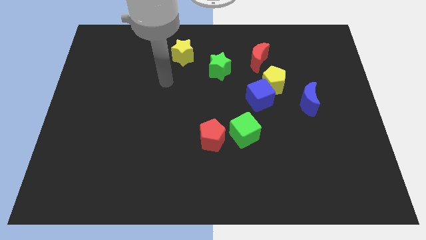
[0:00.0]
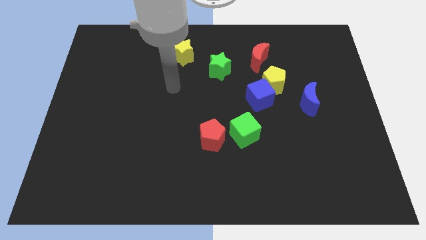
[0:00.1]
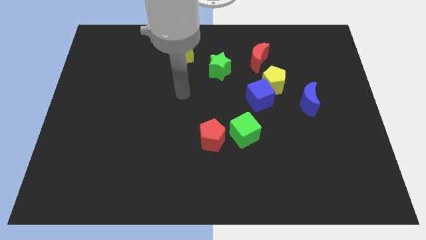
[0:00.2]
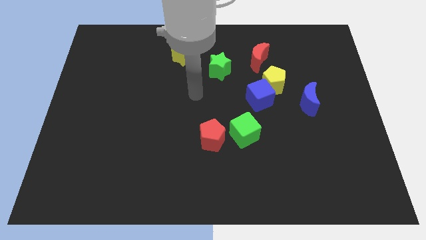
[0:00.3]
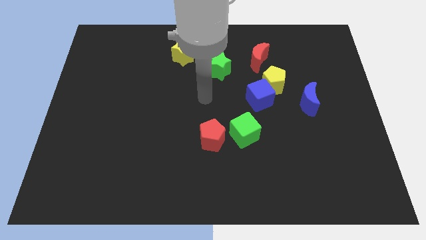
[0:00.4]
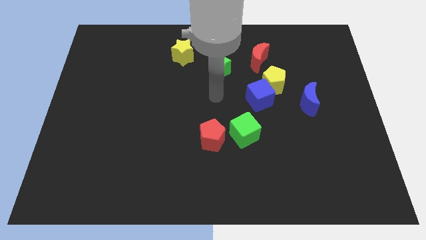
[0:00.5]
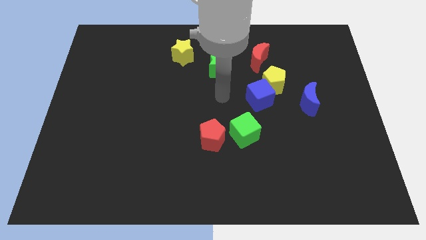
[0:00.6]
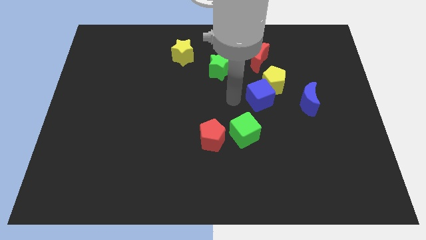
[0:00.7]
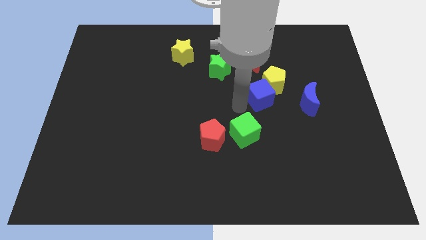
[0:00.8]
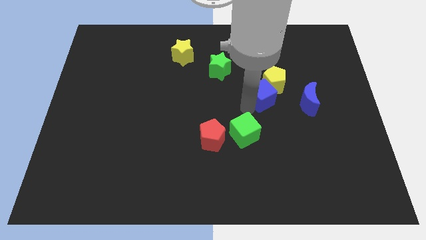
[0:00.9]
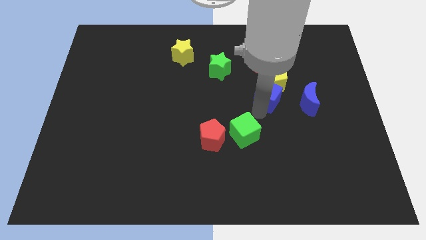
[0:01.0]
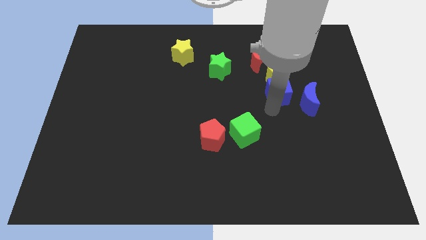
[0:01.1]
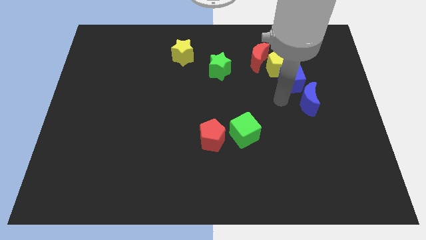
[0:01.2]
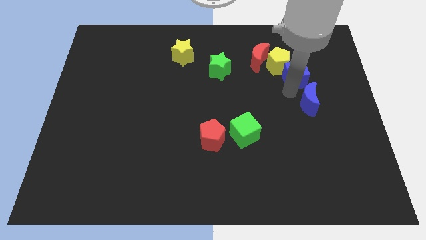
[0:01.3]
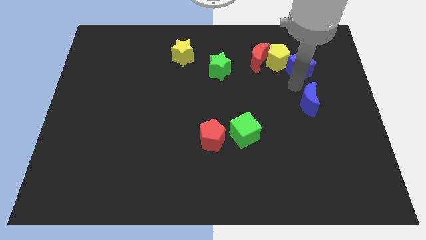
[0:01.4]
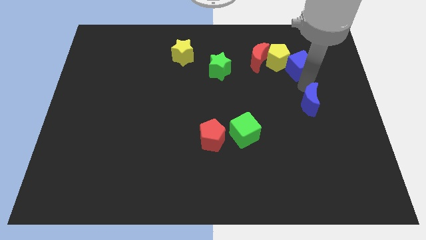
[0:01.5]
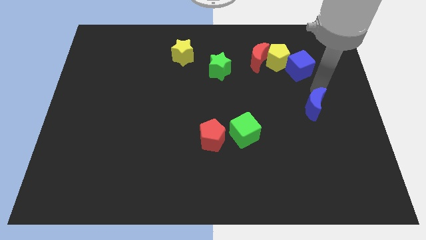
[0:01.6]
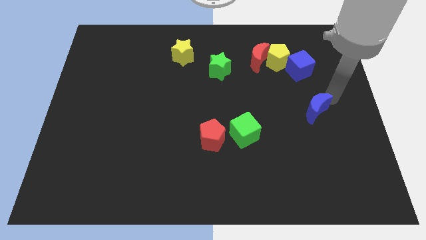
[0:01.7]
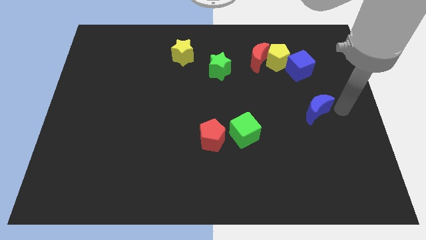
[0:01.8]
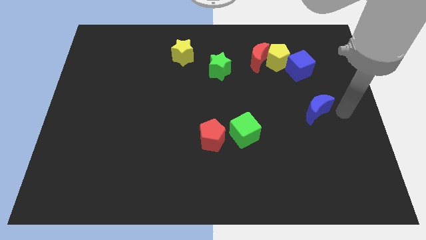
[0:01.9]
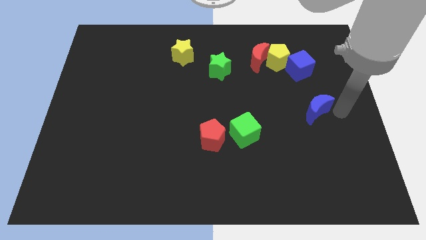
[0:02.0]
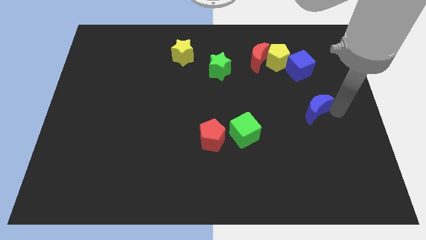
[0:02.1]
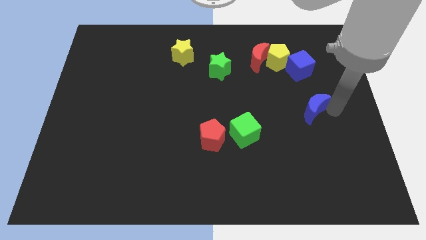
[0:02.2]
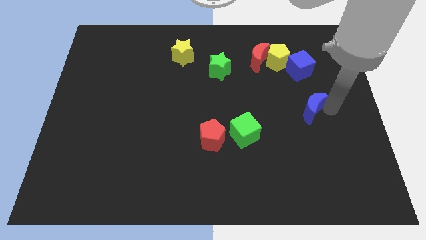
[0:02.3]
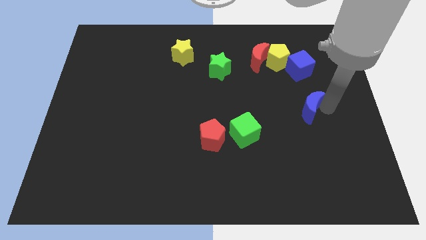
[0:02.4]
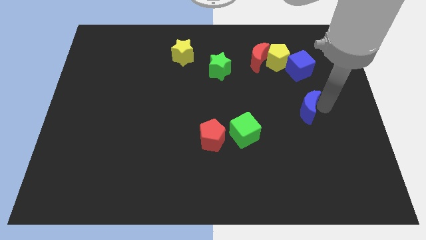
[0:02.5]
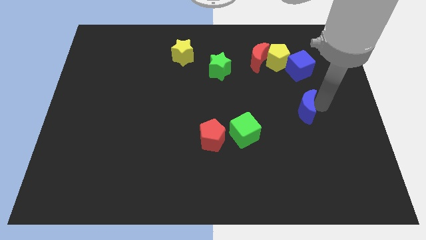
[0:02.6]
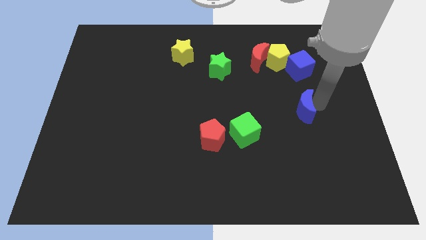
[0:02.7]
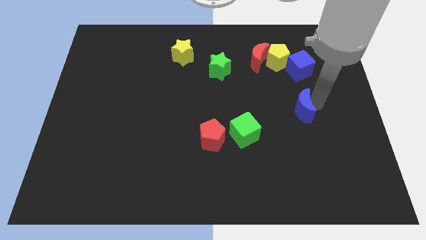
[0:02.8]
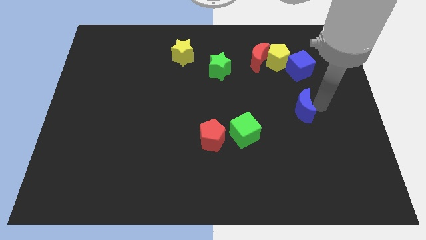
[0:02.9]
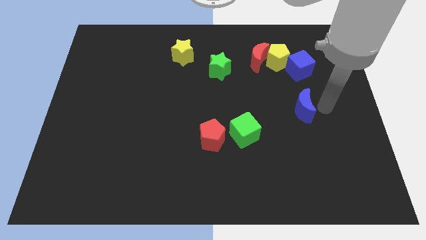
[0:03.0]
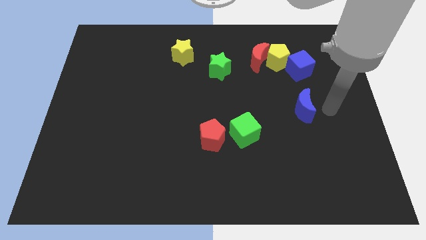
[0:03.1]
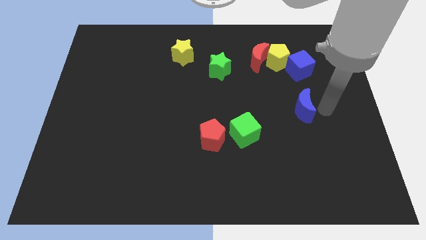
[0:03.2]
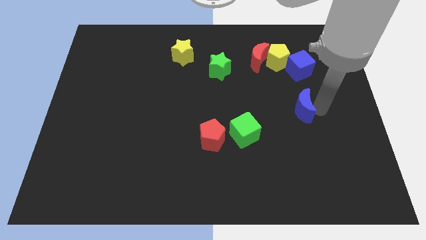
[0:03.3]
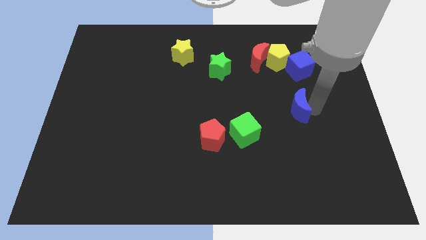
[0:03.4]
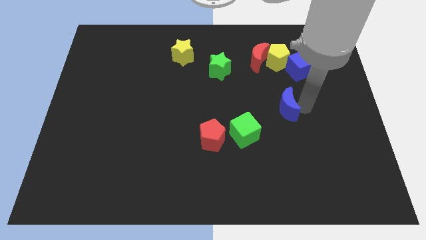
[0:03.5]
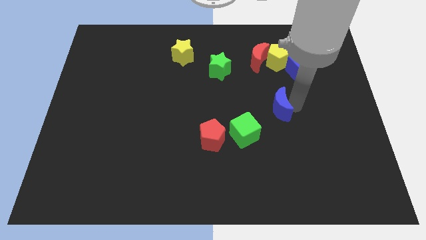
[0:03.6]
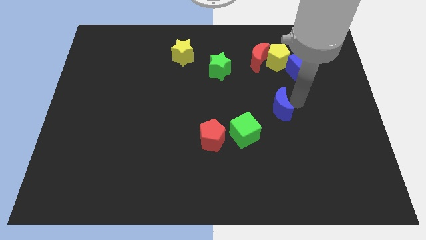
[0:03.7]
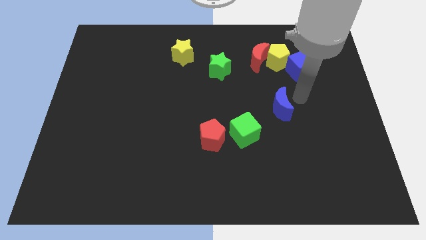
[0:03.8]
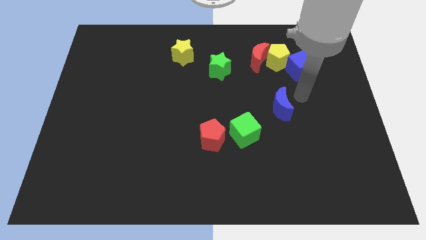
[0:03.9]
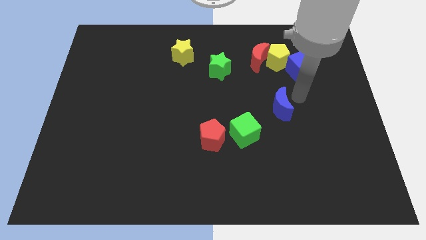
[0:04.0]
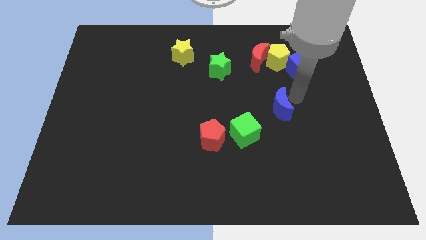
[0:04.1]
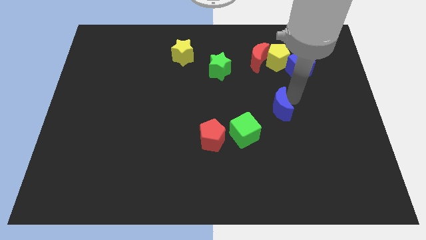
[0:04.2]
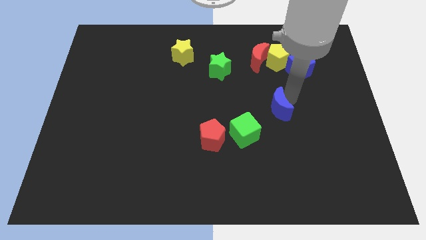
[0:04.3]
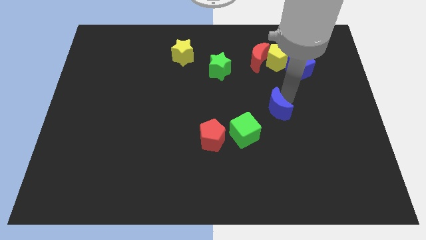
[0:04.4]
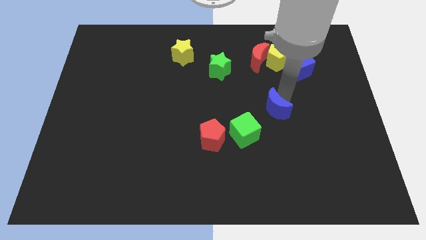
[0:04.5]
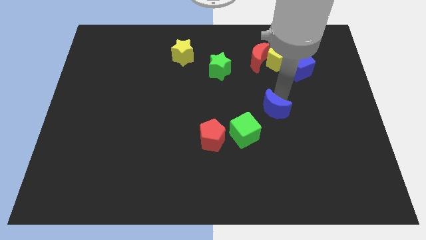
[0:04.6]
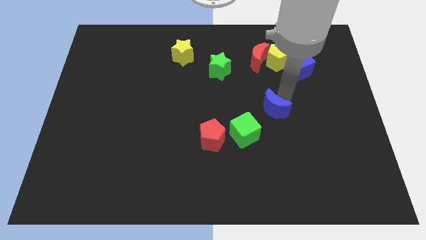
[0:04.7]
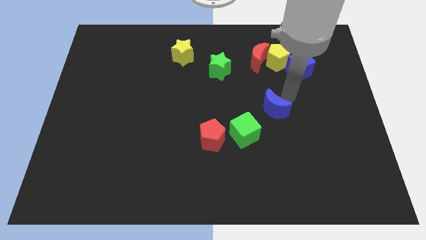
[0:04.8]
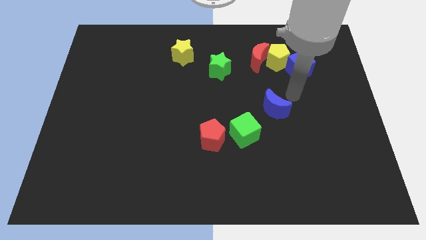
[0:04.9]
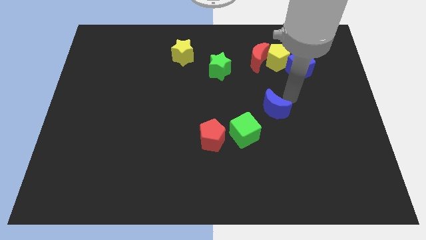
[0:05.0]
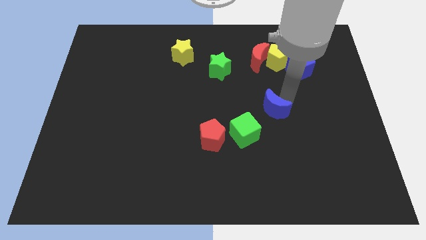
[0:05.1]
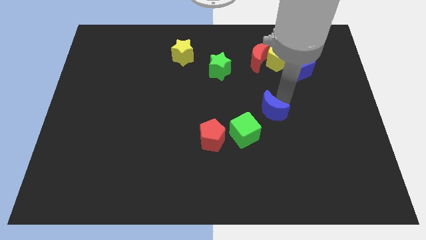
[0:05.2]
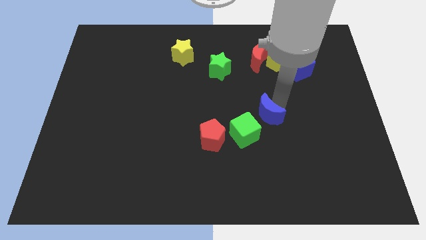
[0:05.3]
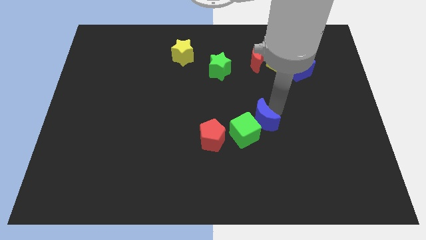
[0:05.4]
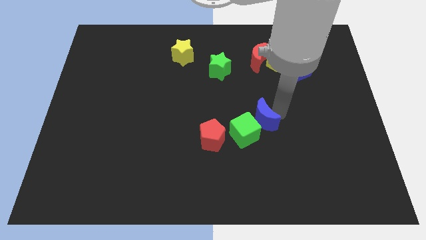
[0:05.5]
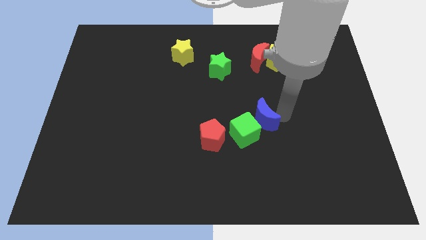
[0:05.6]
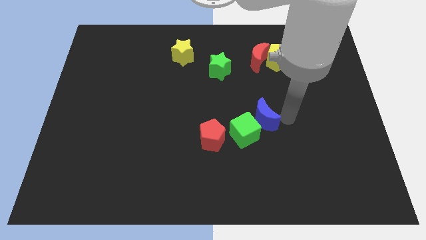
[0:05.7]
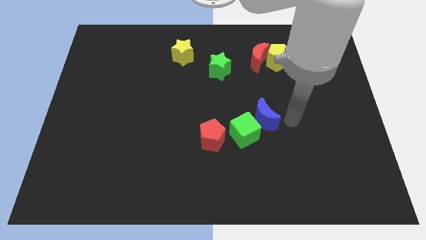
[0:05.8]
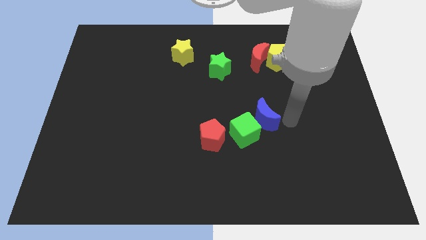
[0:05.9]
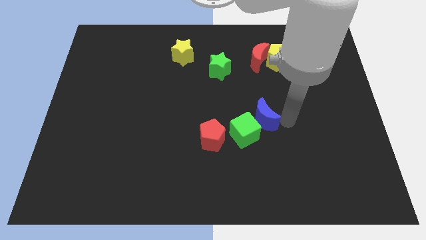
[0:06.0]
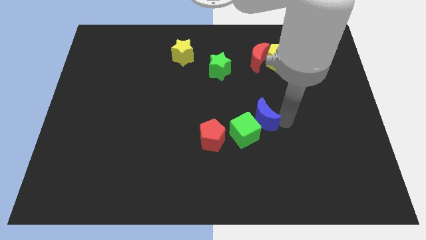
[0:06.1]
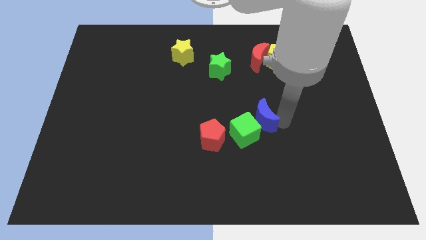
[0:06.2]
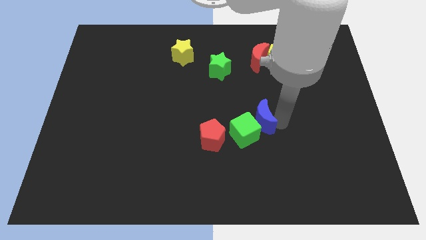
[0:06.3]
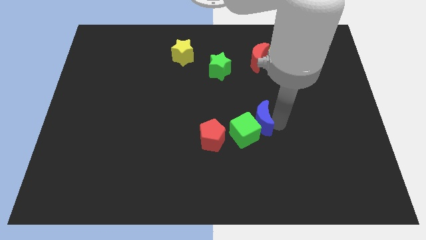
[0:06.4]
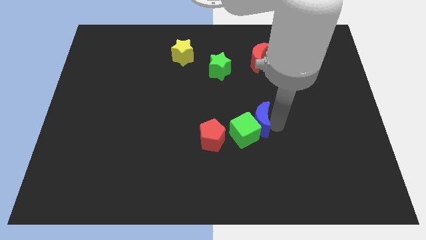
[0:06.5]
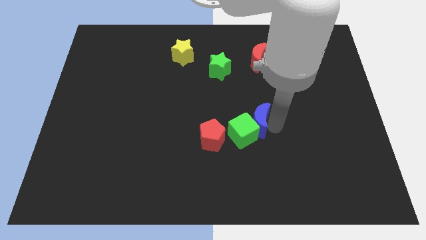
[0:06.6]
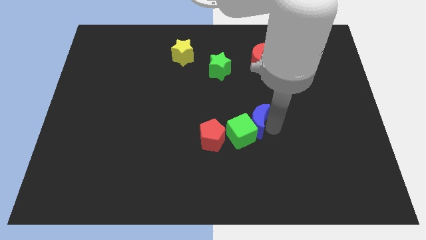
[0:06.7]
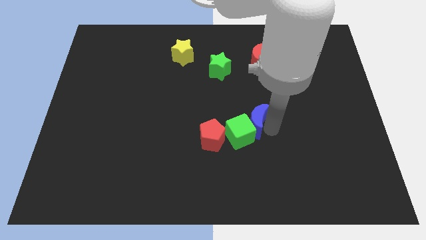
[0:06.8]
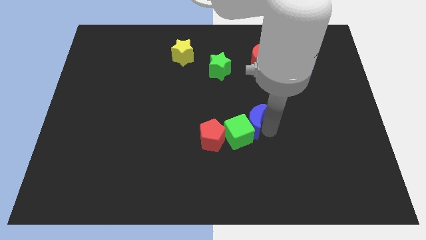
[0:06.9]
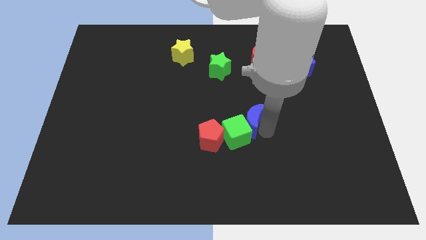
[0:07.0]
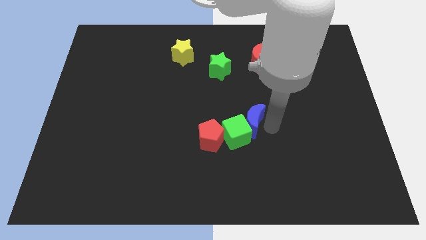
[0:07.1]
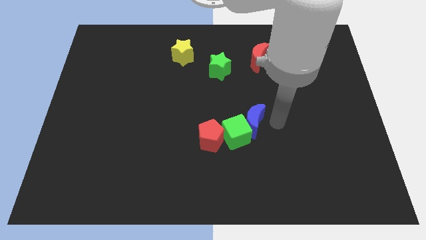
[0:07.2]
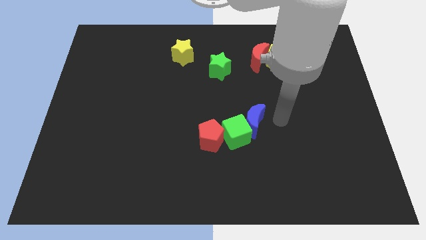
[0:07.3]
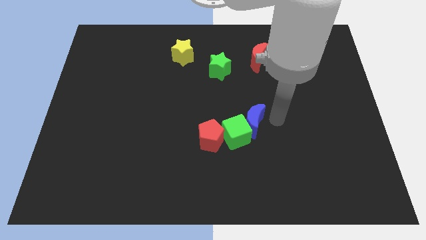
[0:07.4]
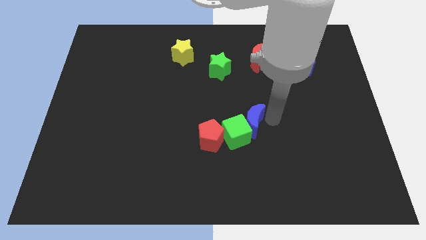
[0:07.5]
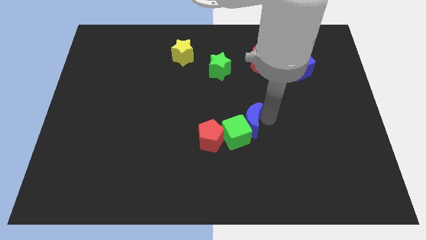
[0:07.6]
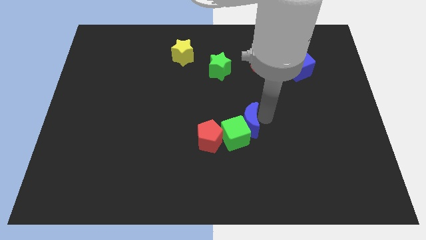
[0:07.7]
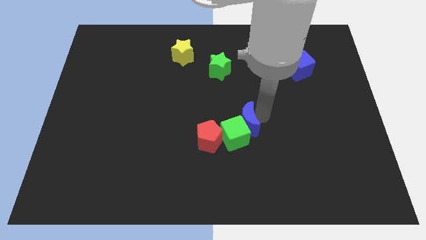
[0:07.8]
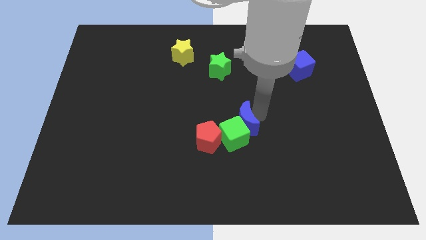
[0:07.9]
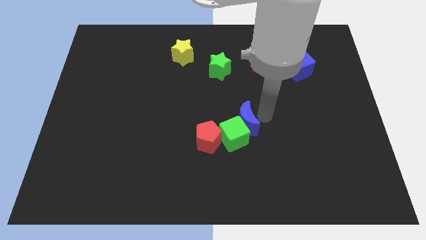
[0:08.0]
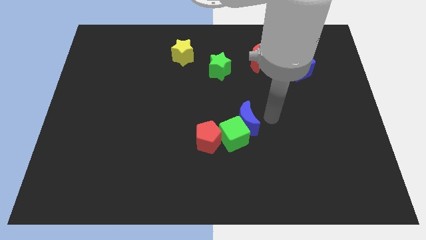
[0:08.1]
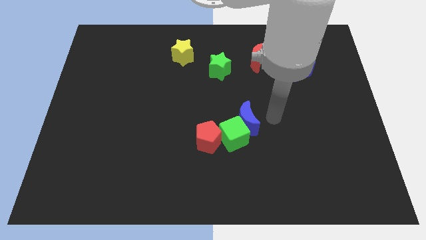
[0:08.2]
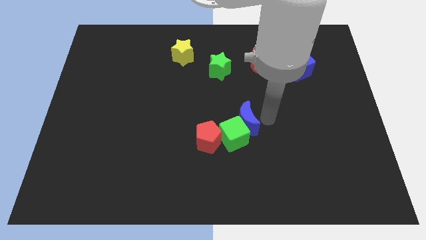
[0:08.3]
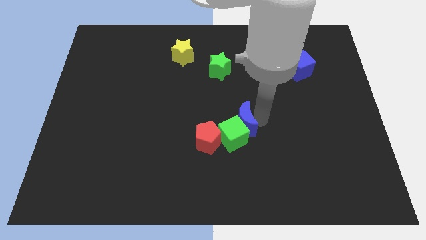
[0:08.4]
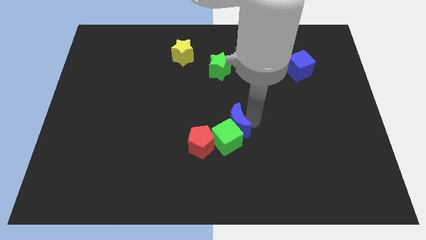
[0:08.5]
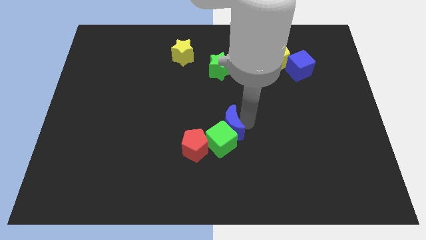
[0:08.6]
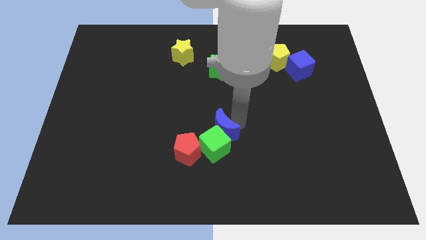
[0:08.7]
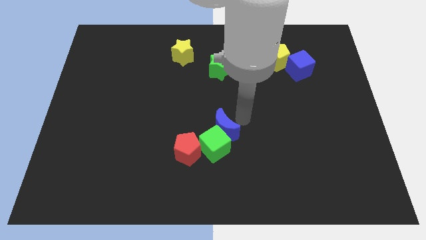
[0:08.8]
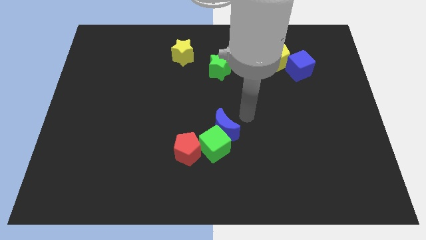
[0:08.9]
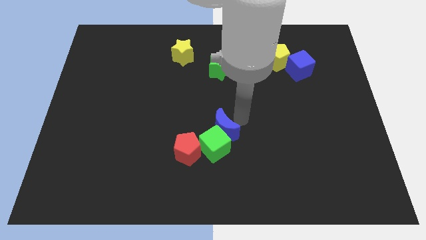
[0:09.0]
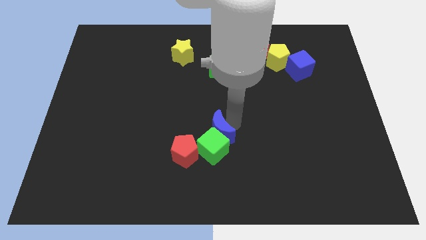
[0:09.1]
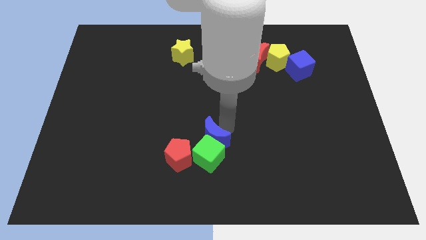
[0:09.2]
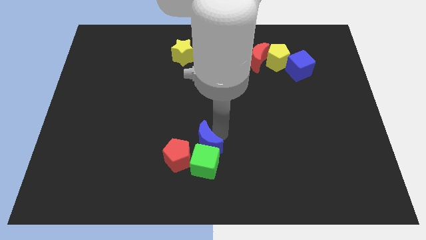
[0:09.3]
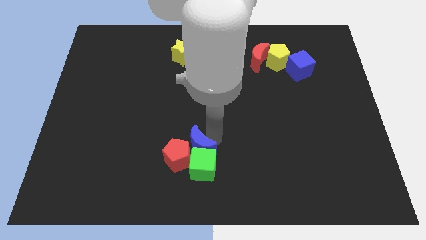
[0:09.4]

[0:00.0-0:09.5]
move the blue moon next to the red pentagon
